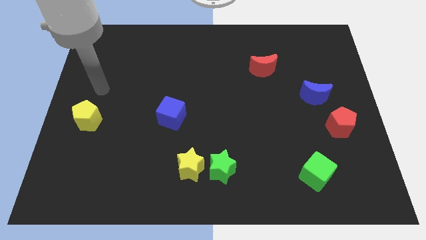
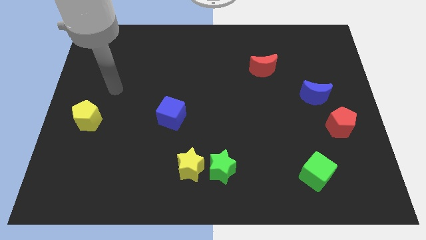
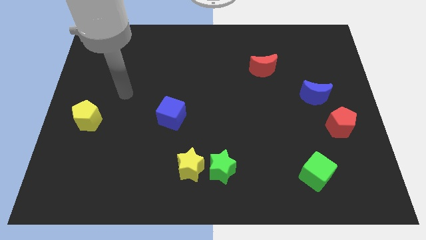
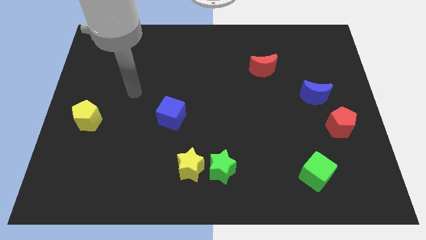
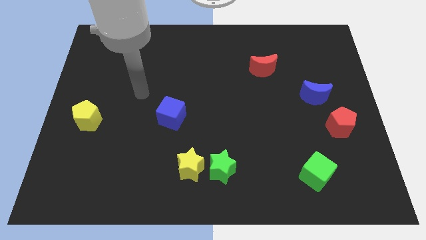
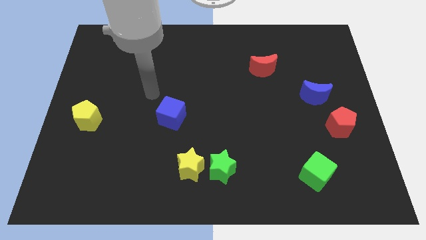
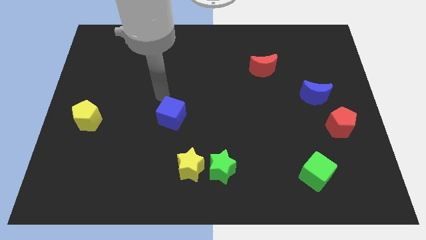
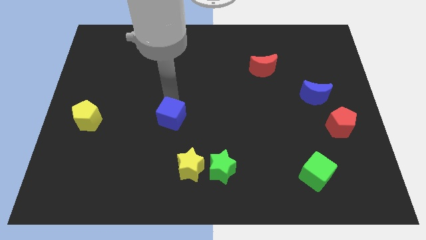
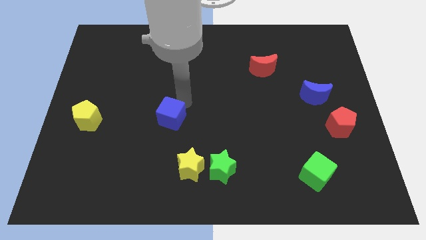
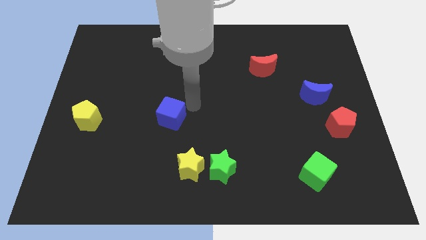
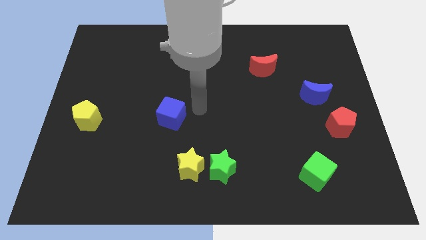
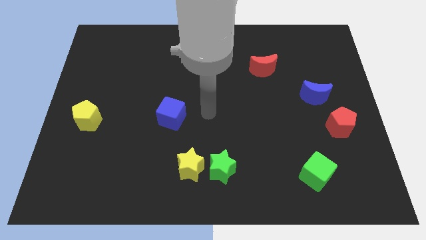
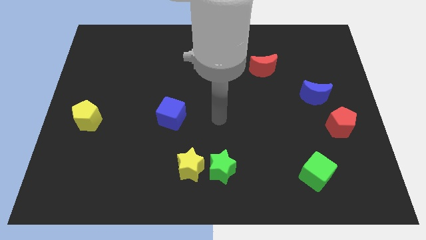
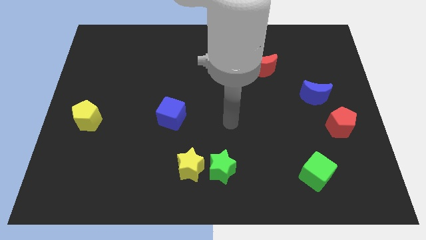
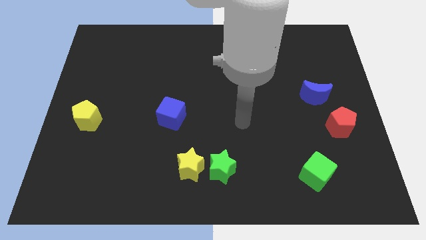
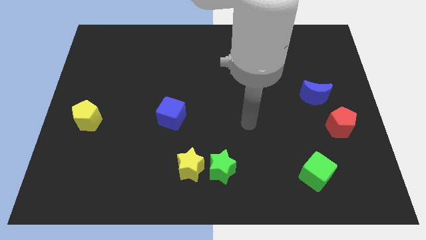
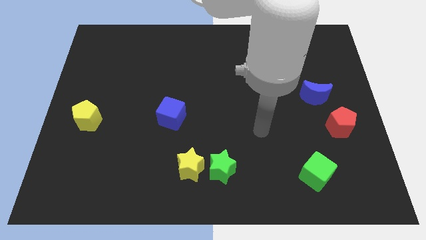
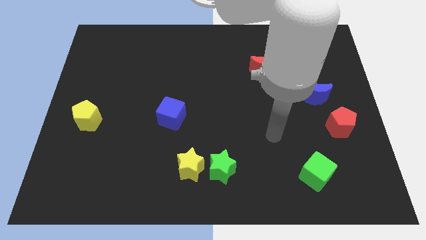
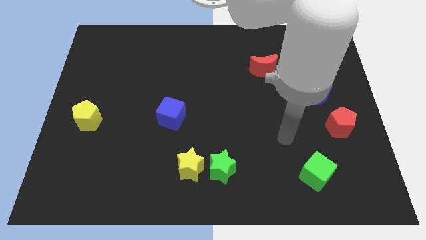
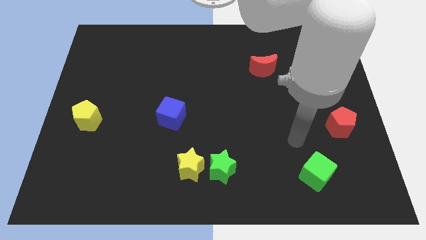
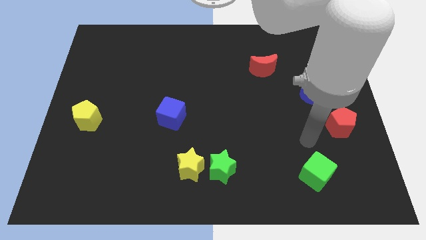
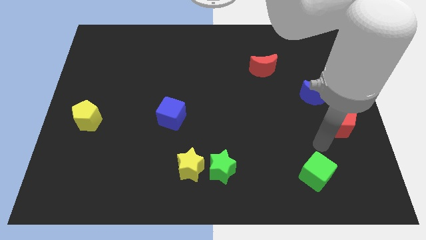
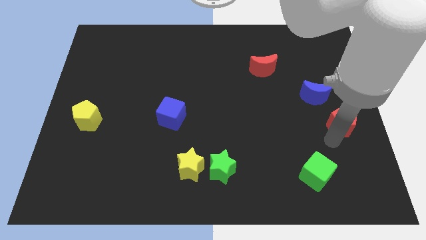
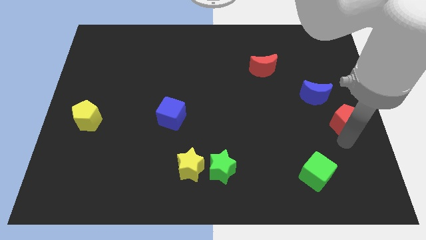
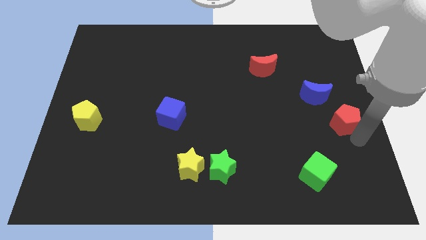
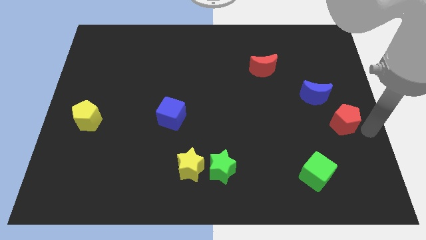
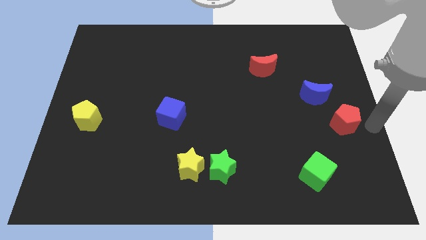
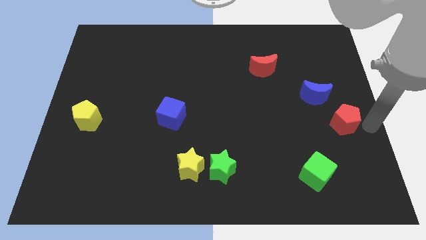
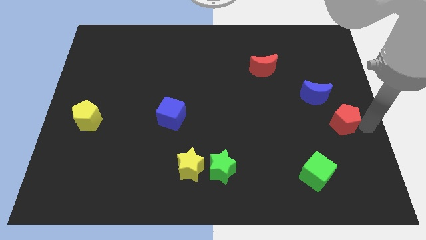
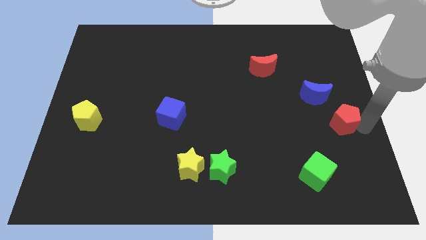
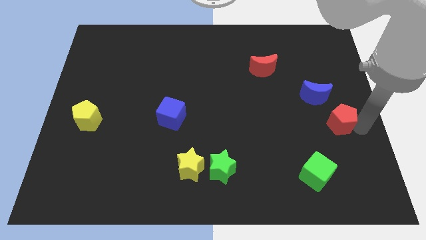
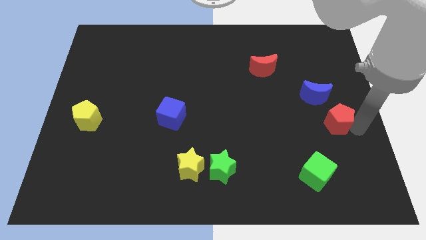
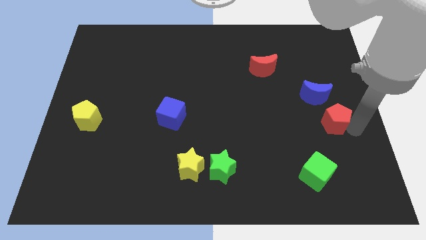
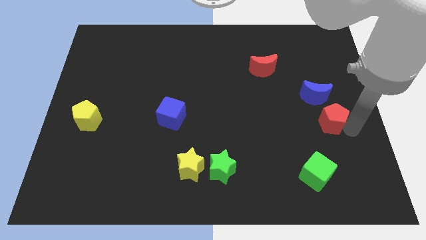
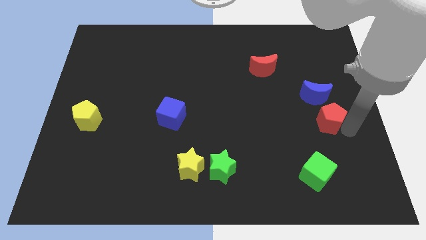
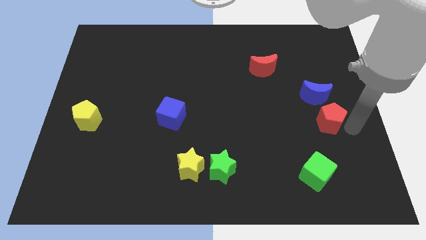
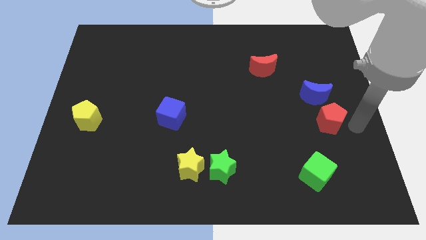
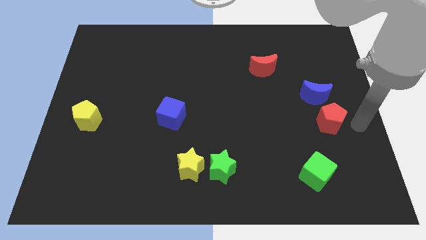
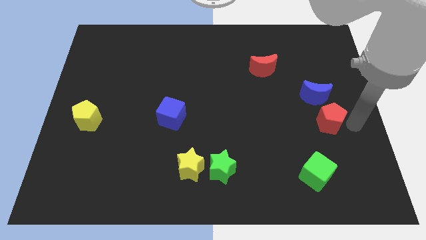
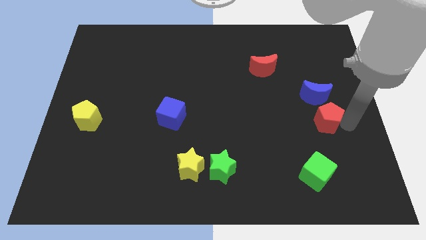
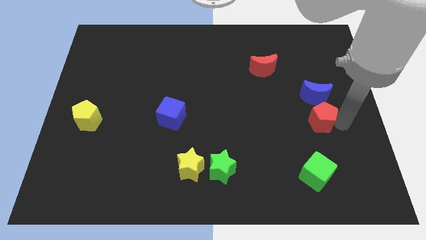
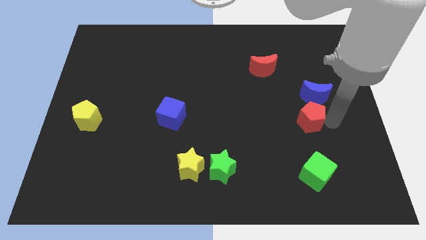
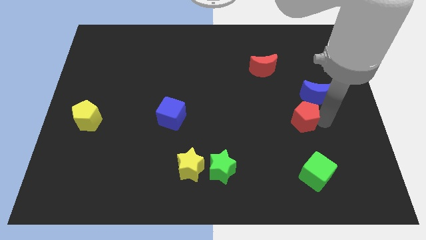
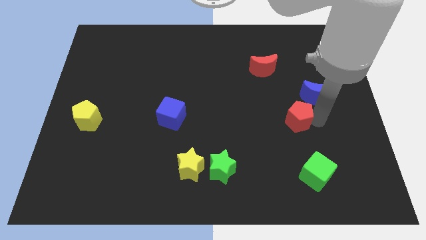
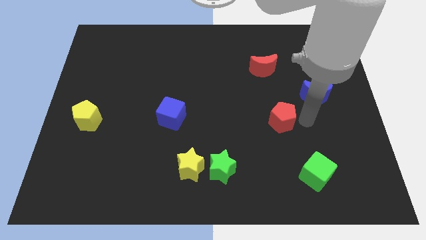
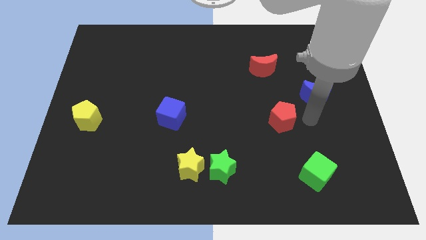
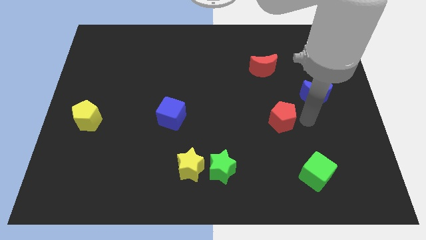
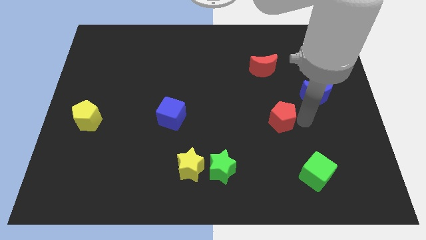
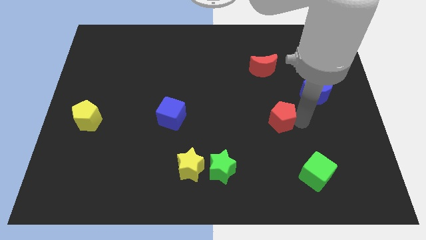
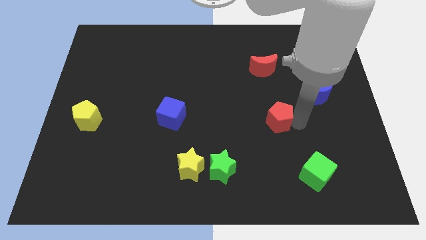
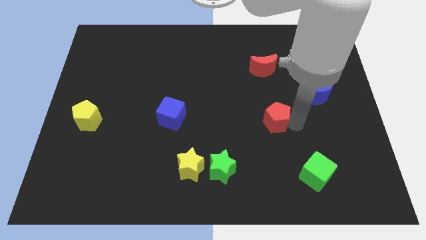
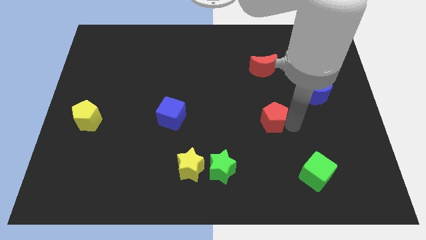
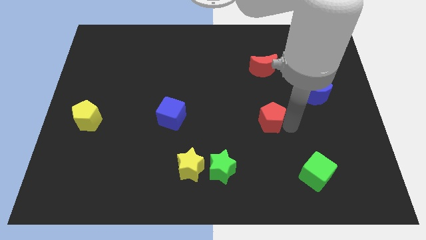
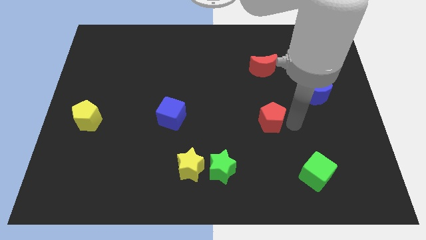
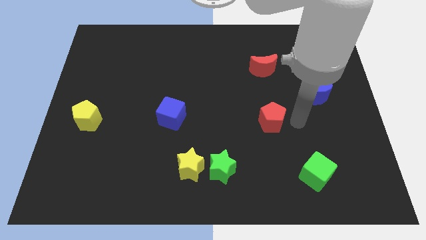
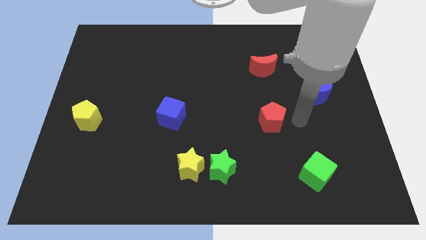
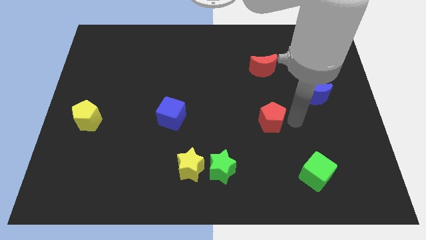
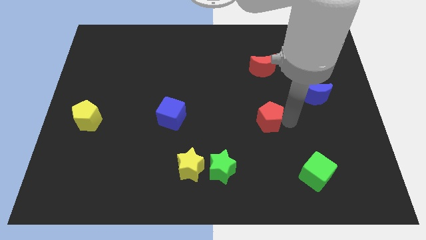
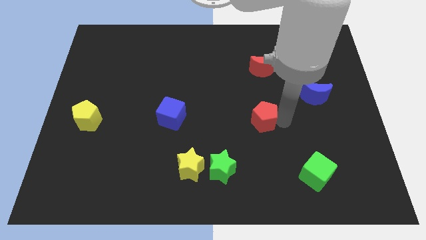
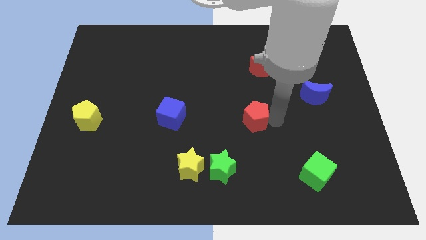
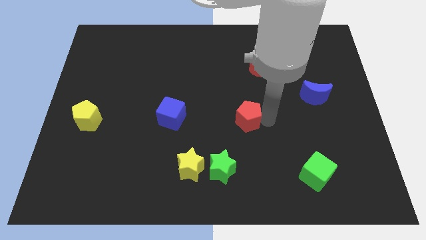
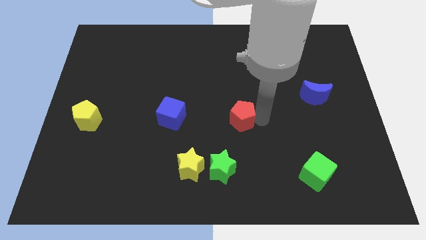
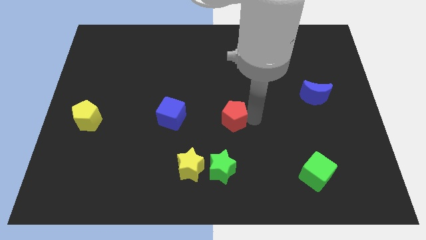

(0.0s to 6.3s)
push the red pentagon to the top side of the green star

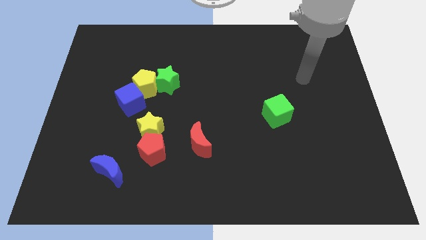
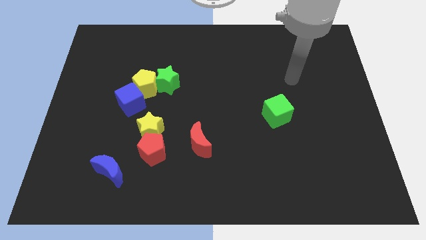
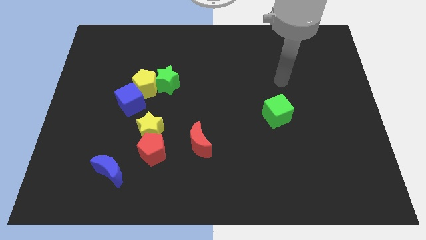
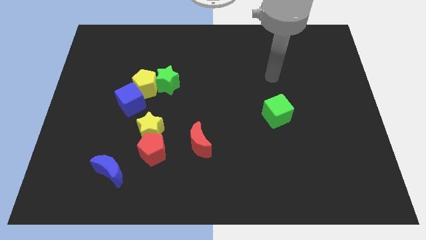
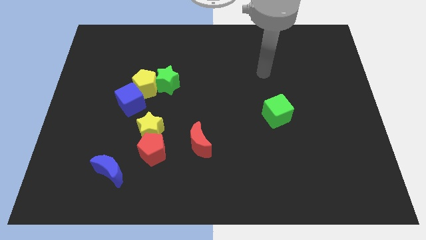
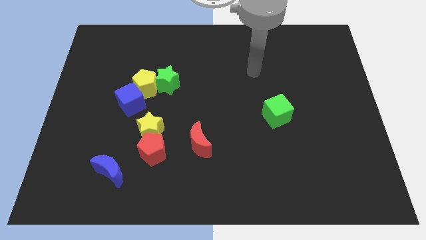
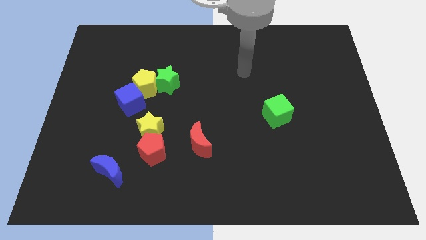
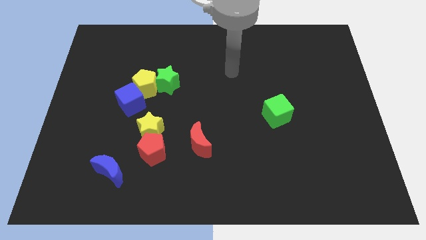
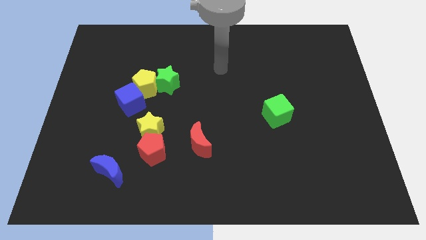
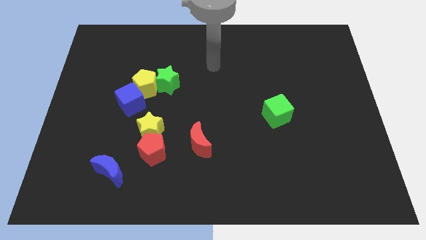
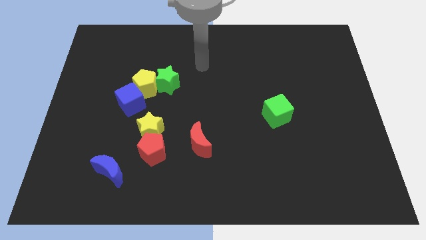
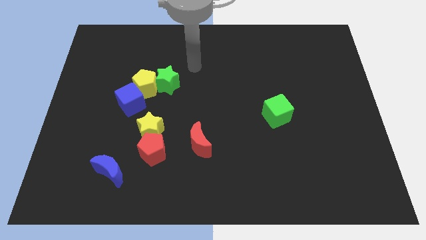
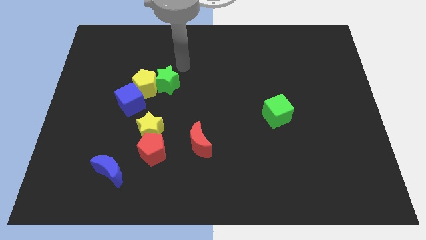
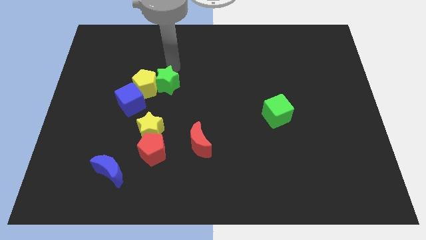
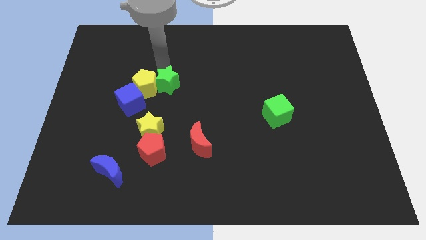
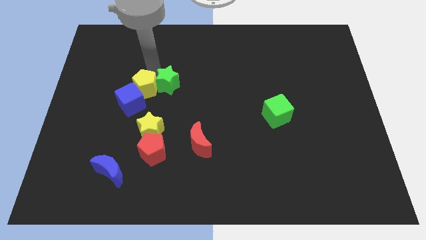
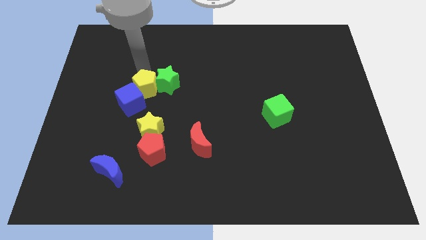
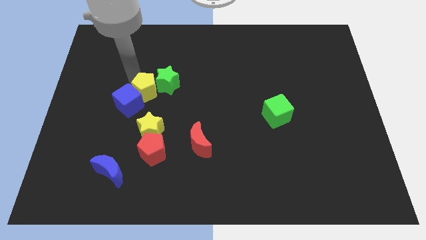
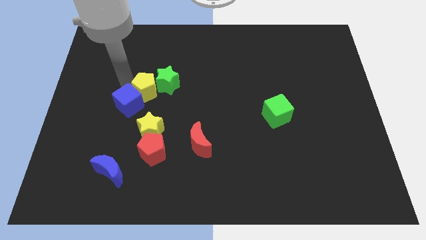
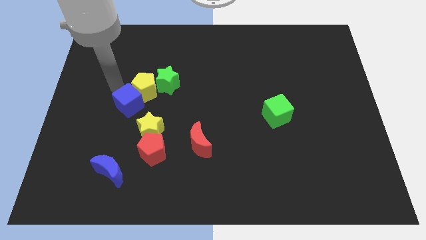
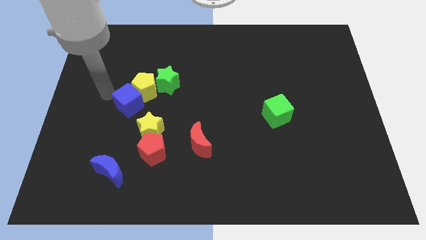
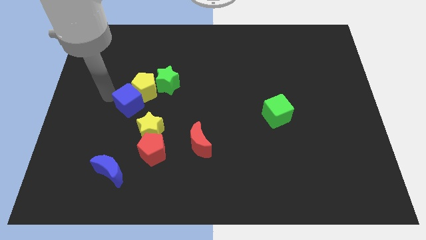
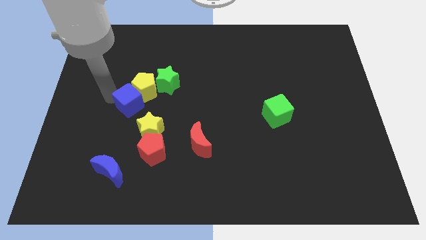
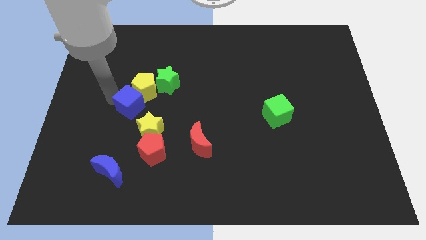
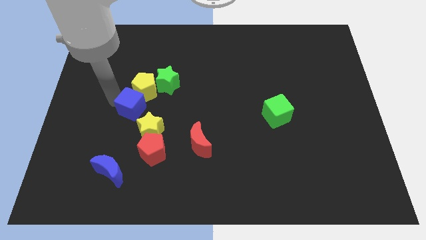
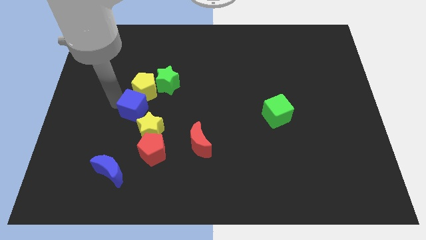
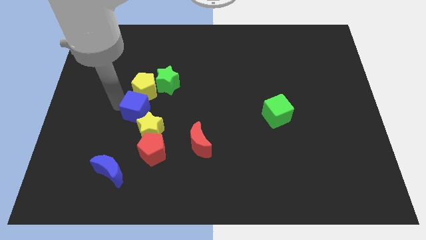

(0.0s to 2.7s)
move the blue cube to the top of the red pentagon
